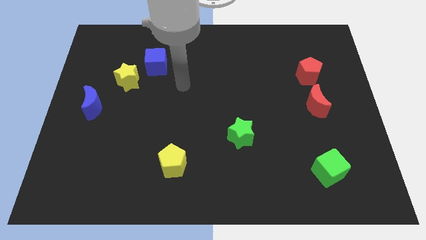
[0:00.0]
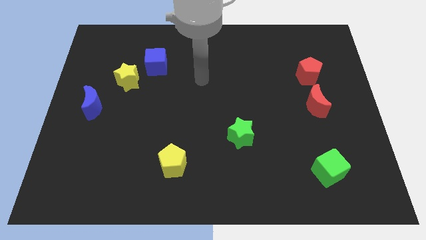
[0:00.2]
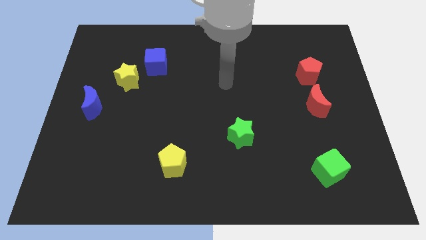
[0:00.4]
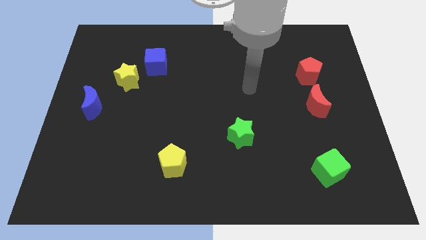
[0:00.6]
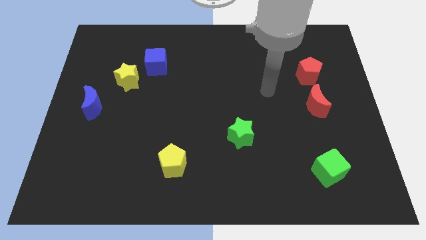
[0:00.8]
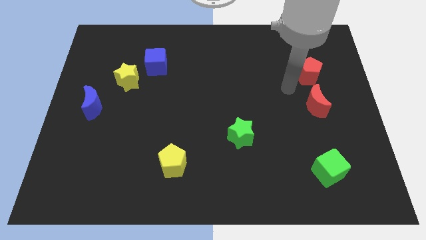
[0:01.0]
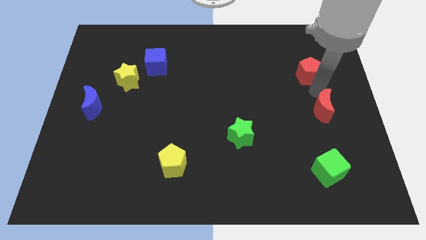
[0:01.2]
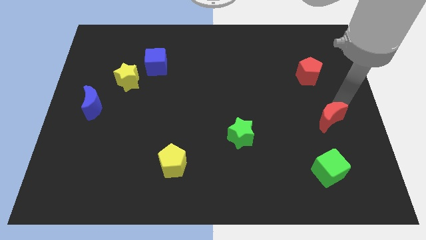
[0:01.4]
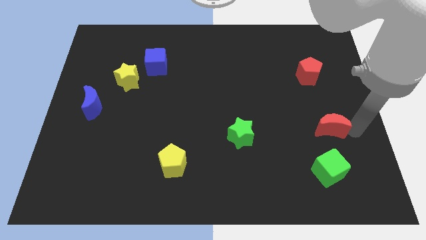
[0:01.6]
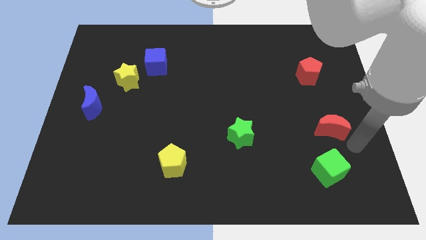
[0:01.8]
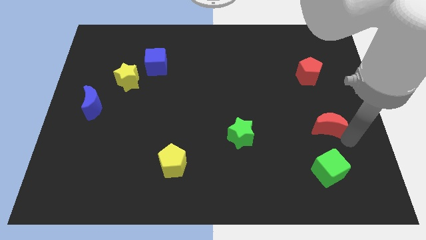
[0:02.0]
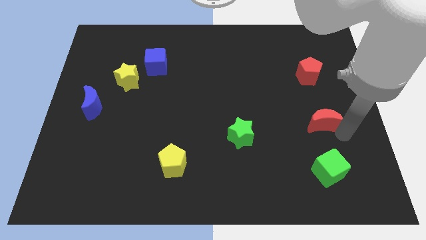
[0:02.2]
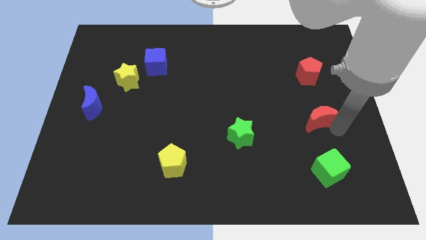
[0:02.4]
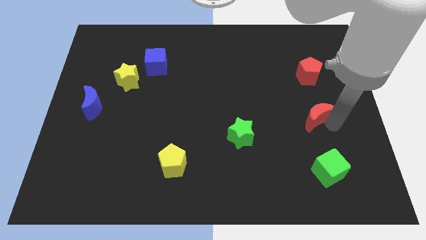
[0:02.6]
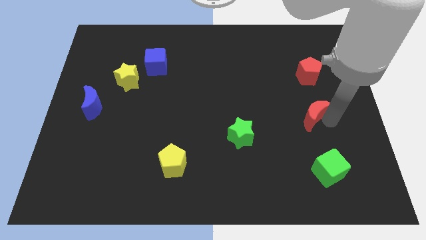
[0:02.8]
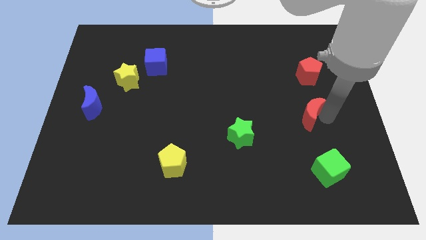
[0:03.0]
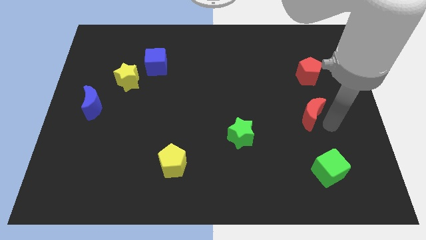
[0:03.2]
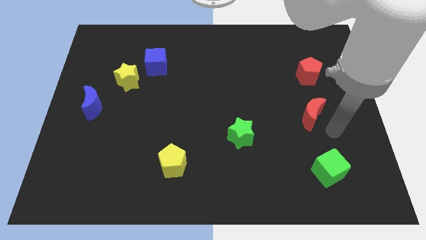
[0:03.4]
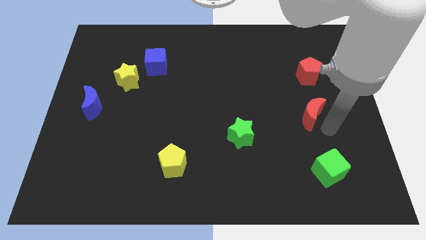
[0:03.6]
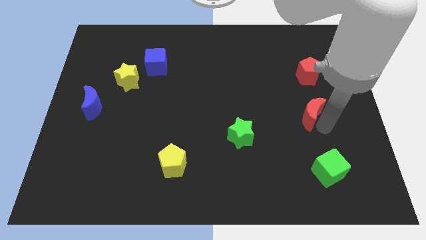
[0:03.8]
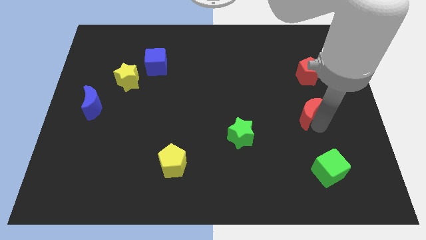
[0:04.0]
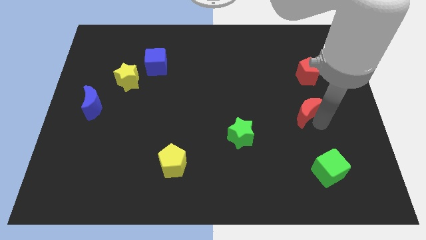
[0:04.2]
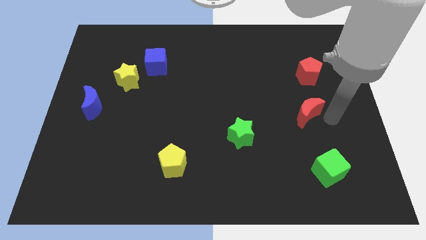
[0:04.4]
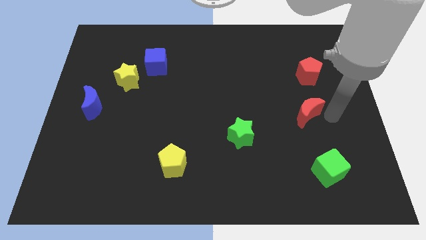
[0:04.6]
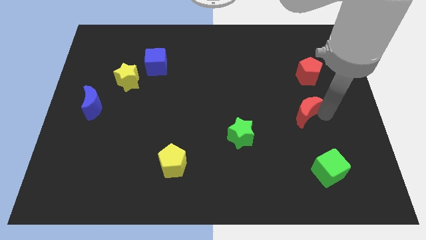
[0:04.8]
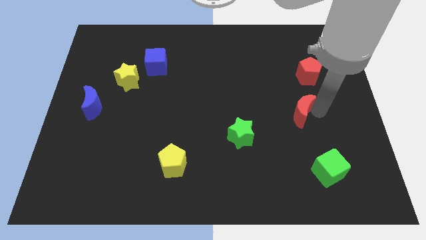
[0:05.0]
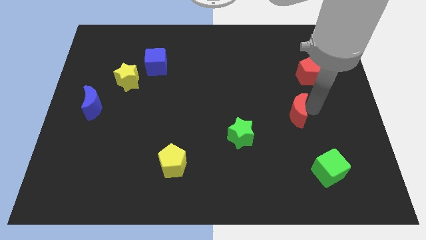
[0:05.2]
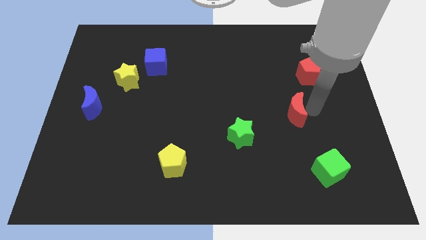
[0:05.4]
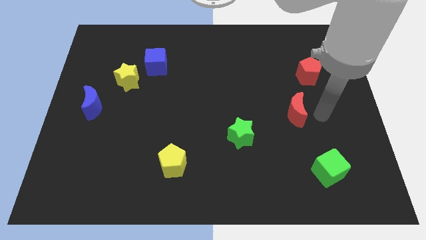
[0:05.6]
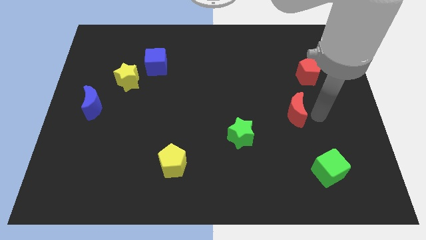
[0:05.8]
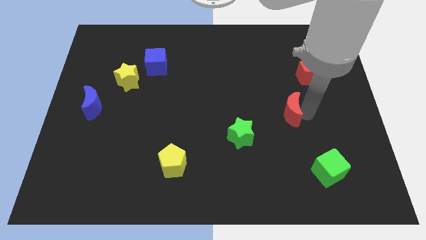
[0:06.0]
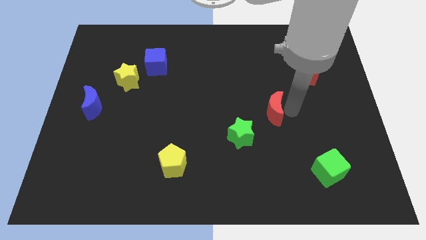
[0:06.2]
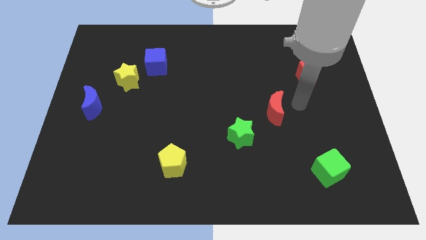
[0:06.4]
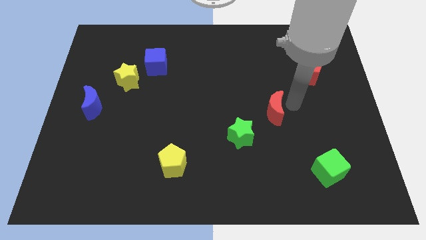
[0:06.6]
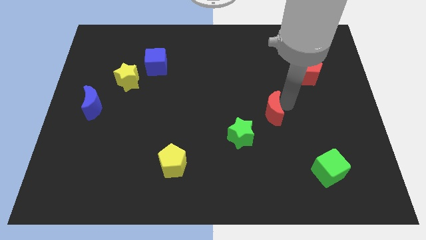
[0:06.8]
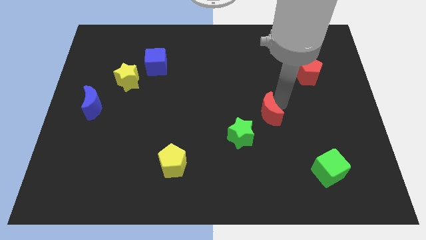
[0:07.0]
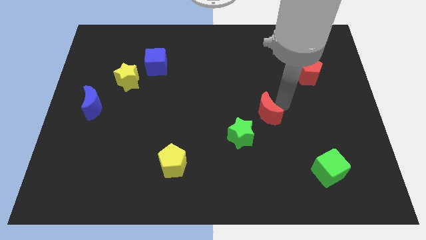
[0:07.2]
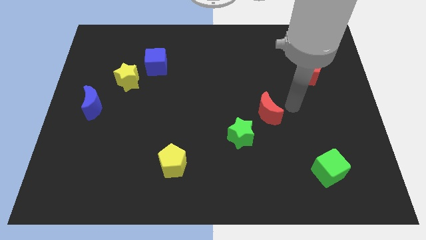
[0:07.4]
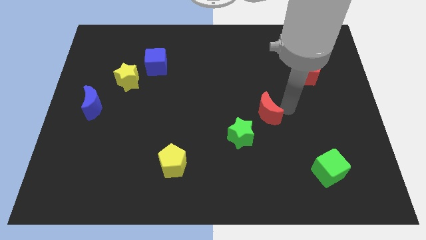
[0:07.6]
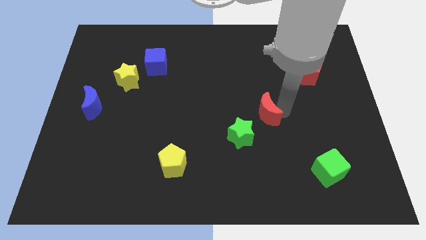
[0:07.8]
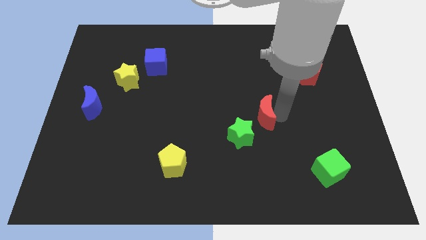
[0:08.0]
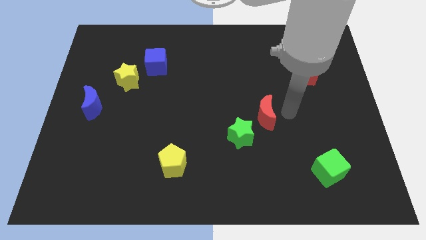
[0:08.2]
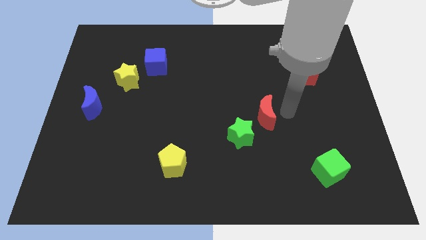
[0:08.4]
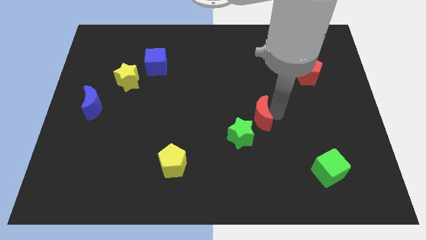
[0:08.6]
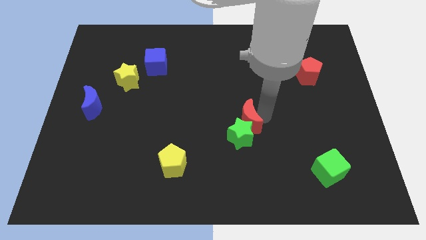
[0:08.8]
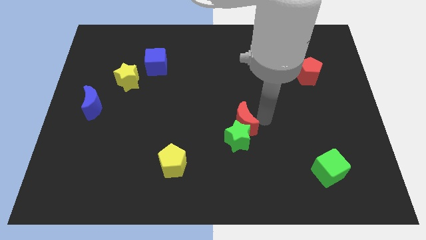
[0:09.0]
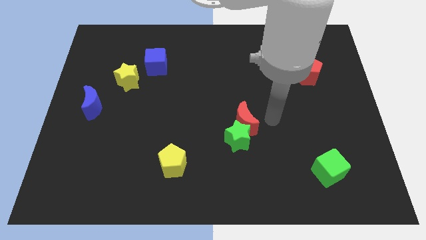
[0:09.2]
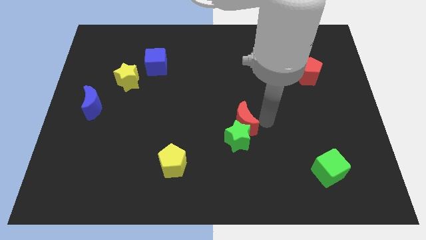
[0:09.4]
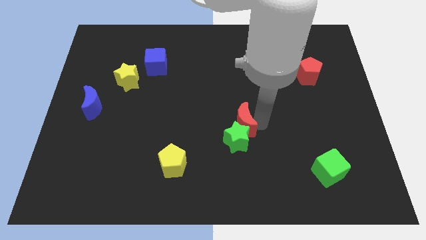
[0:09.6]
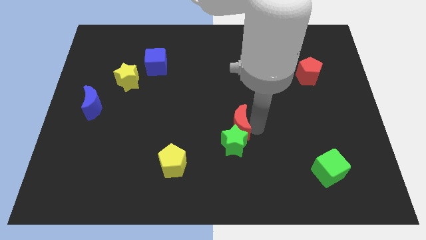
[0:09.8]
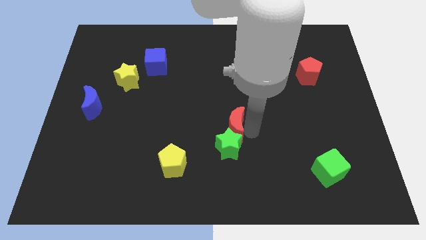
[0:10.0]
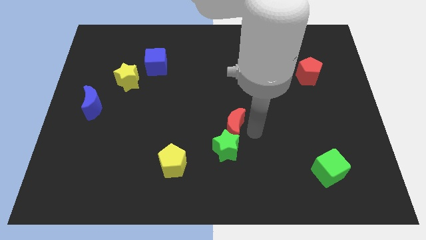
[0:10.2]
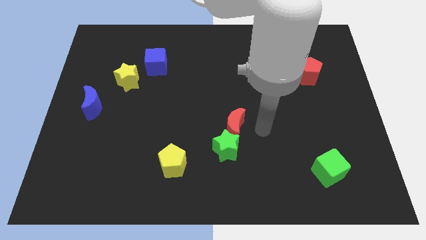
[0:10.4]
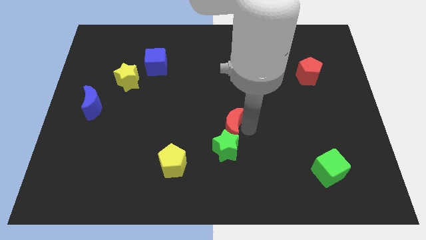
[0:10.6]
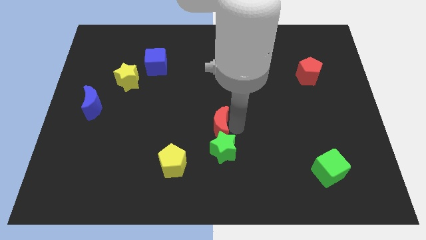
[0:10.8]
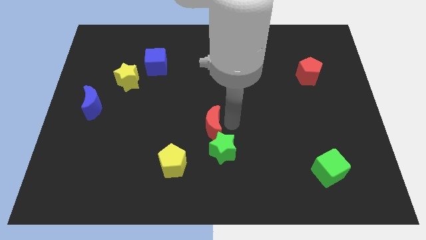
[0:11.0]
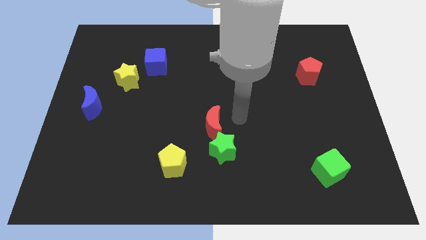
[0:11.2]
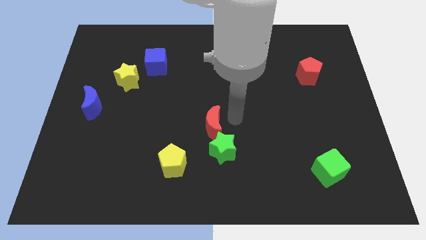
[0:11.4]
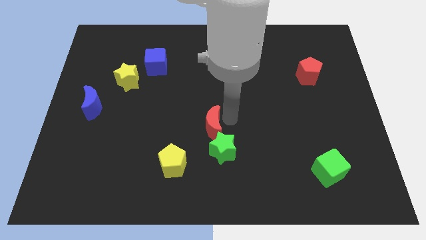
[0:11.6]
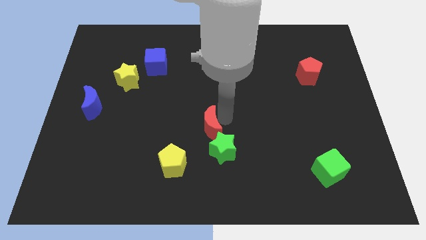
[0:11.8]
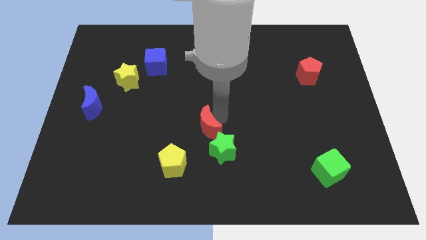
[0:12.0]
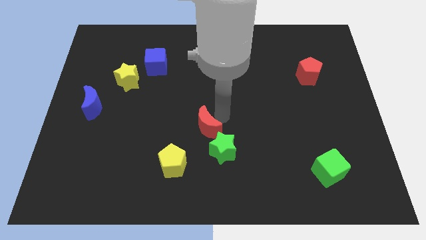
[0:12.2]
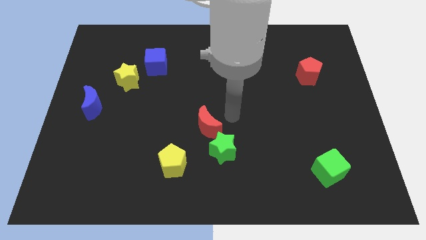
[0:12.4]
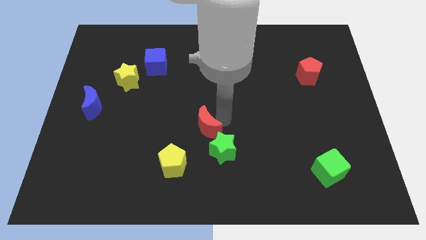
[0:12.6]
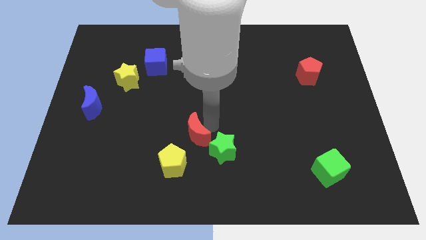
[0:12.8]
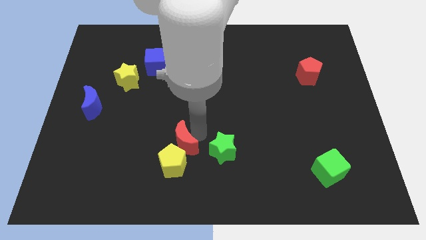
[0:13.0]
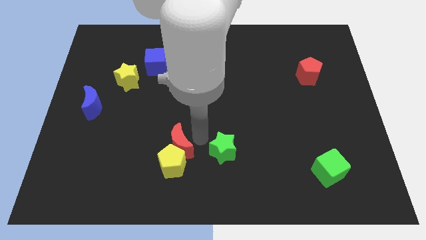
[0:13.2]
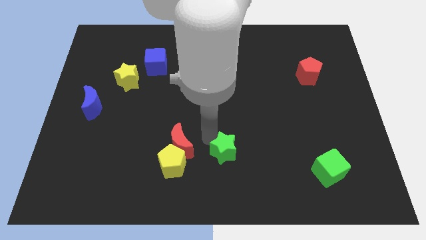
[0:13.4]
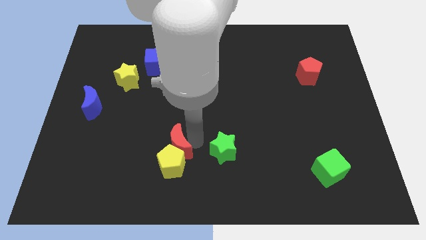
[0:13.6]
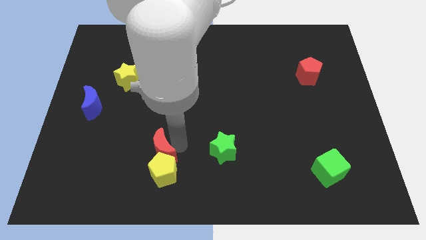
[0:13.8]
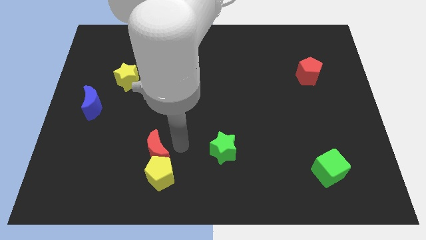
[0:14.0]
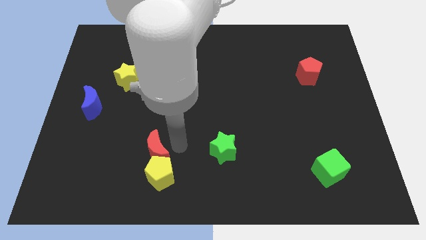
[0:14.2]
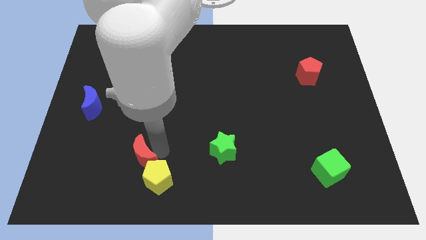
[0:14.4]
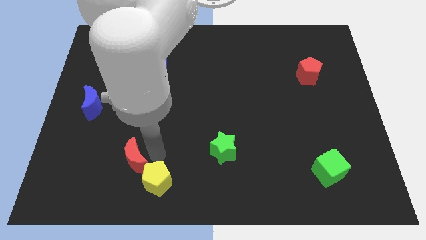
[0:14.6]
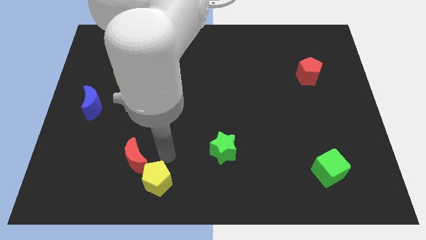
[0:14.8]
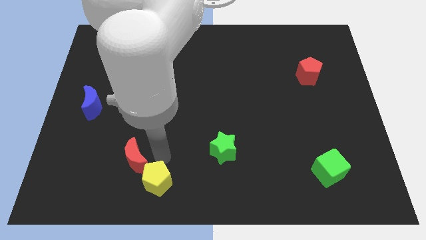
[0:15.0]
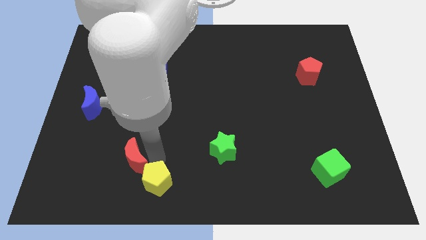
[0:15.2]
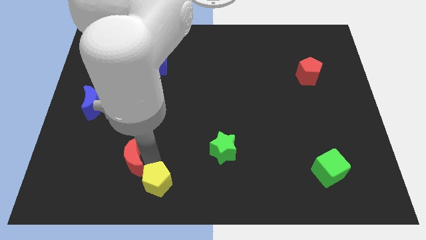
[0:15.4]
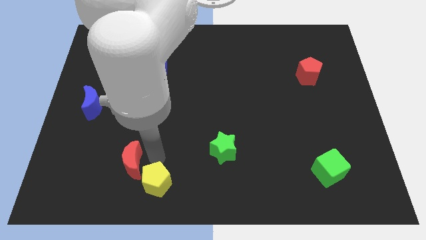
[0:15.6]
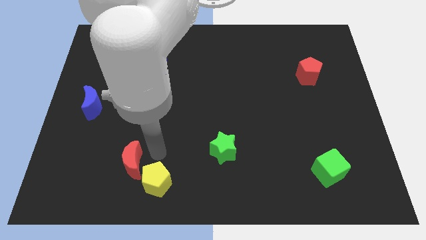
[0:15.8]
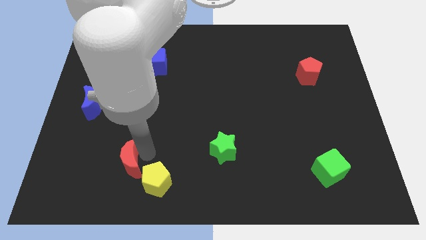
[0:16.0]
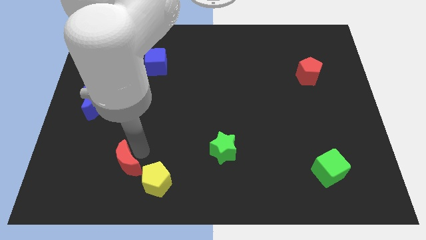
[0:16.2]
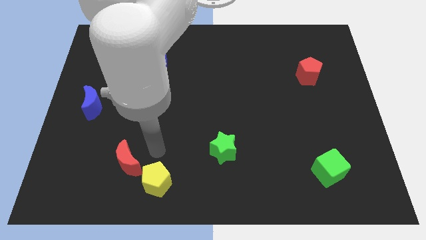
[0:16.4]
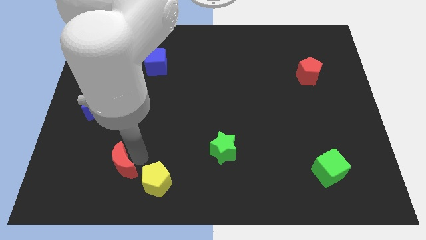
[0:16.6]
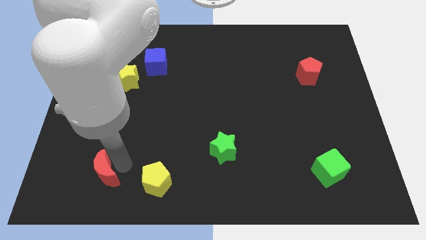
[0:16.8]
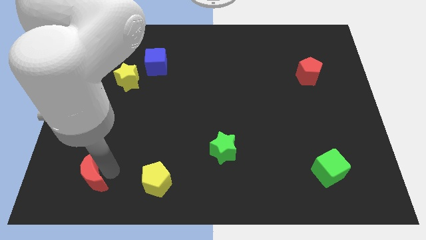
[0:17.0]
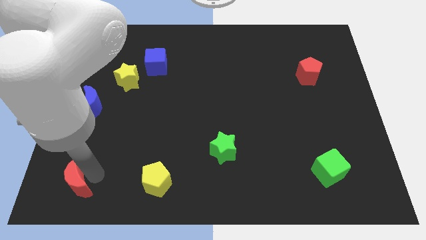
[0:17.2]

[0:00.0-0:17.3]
slide the red moon to the bottom left corner
